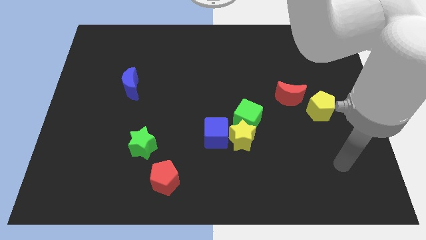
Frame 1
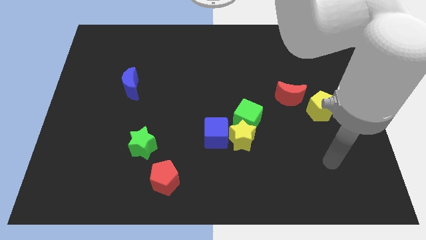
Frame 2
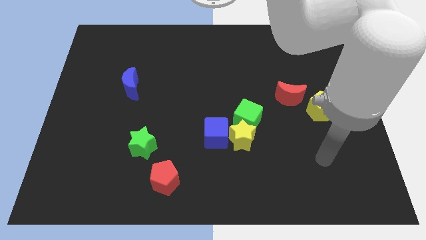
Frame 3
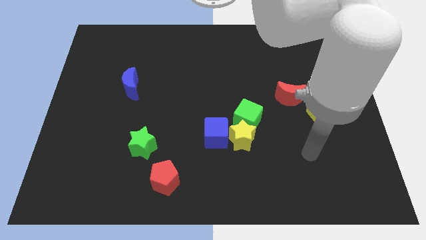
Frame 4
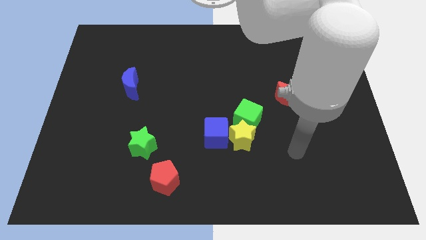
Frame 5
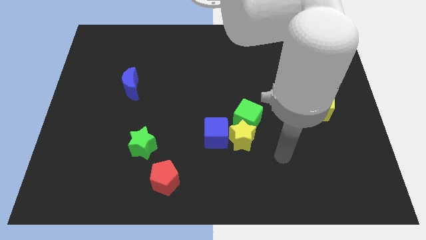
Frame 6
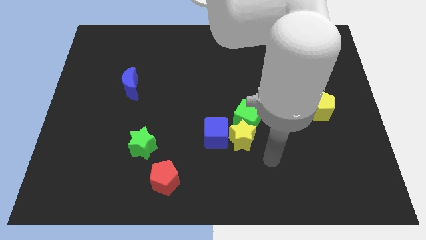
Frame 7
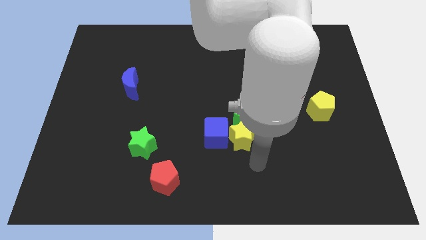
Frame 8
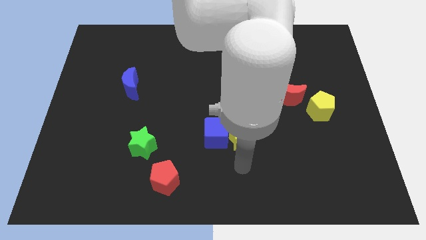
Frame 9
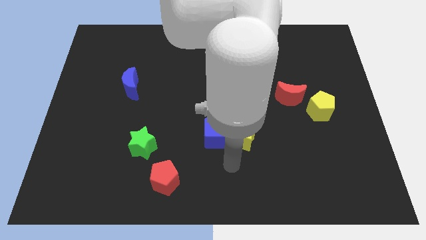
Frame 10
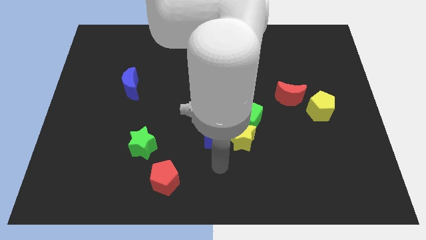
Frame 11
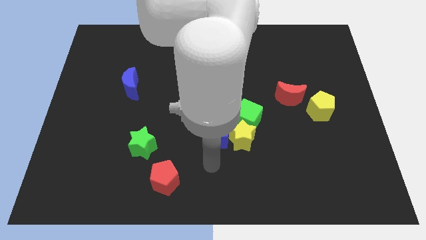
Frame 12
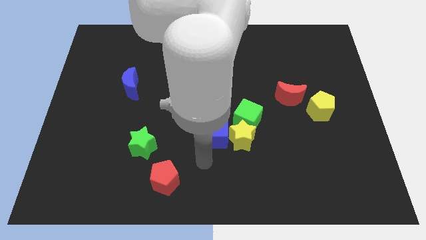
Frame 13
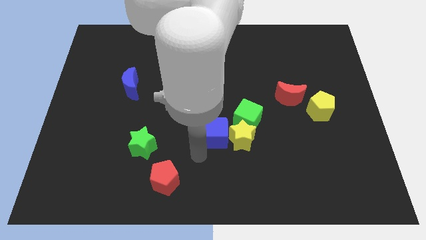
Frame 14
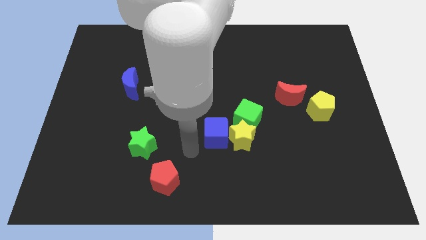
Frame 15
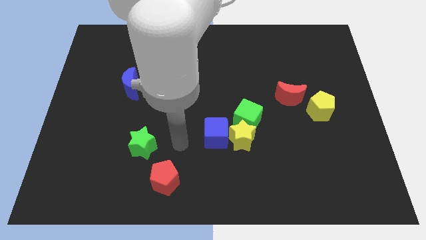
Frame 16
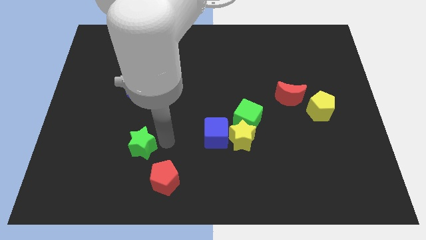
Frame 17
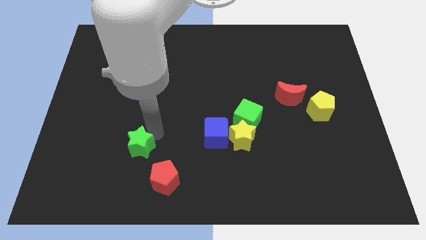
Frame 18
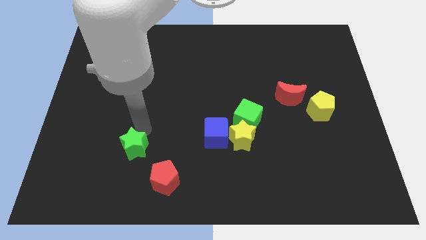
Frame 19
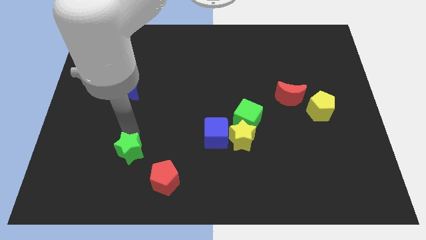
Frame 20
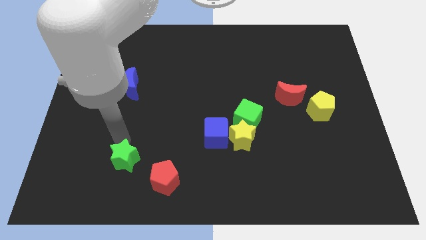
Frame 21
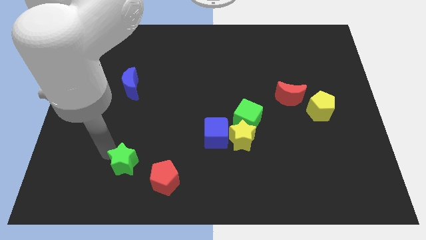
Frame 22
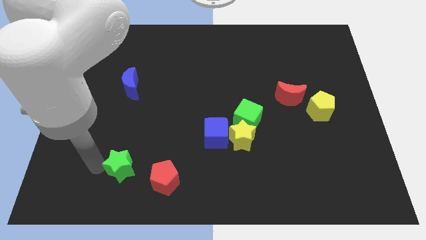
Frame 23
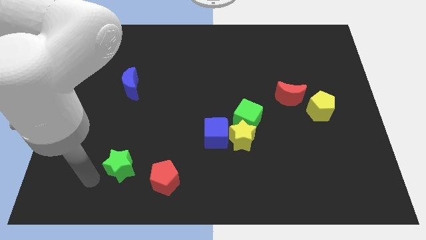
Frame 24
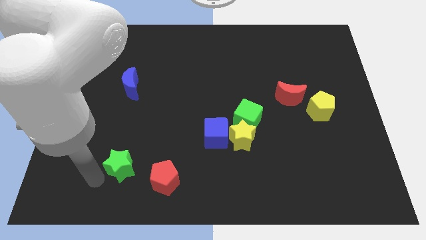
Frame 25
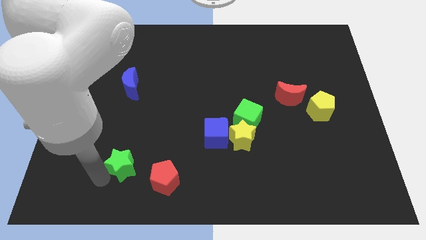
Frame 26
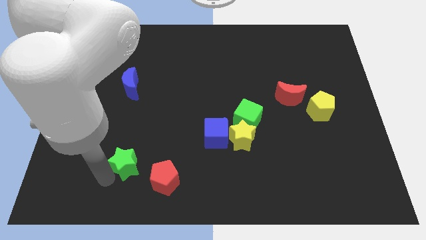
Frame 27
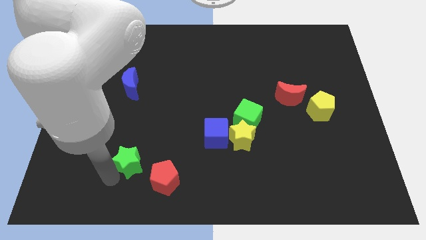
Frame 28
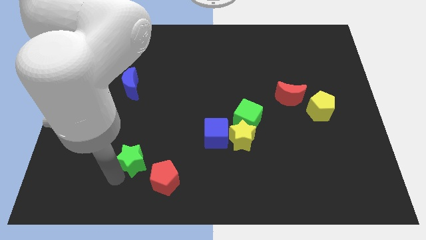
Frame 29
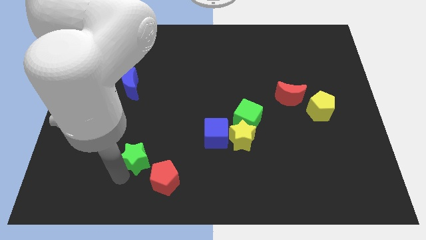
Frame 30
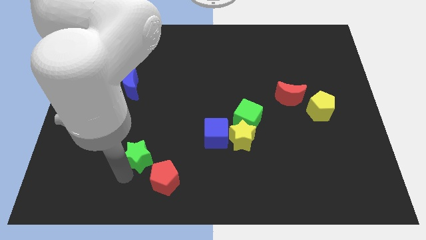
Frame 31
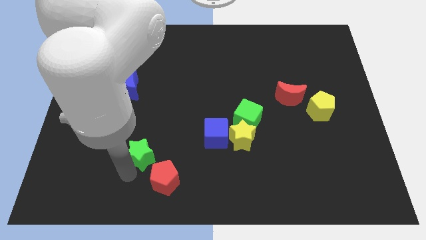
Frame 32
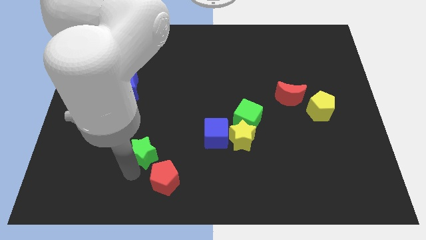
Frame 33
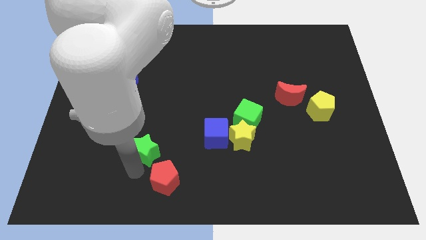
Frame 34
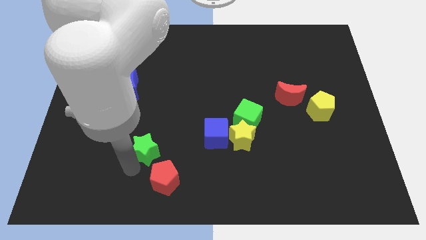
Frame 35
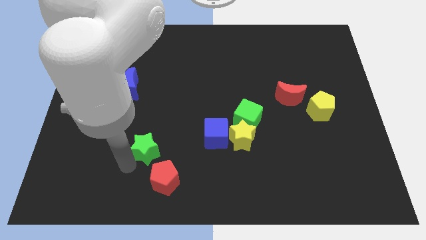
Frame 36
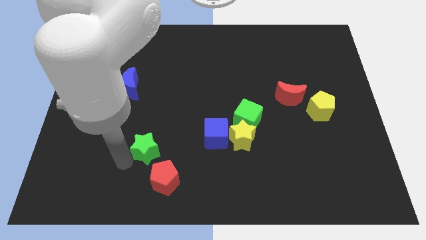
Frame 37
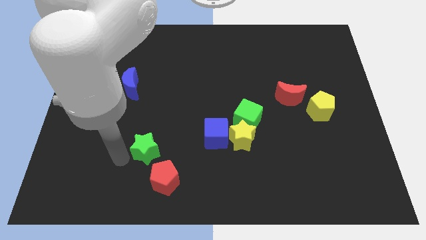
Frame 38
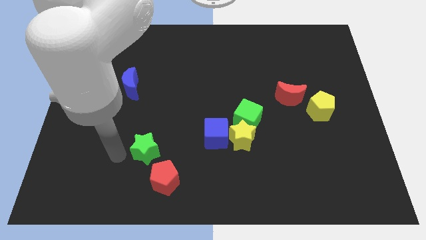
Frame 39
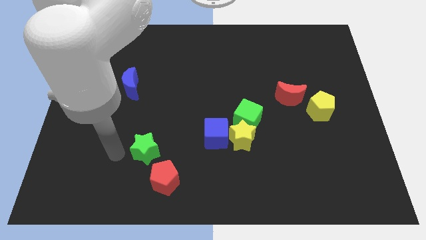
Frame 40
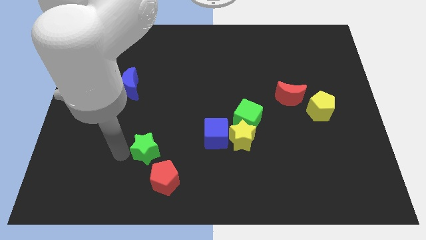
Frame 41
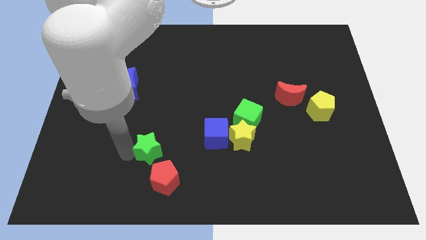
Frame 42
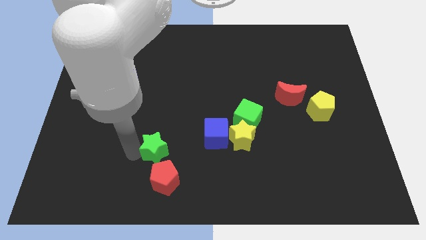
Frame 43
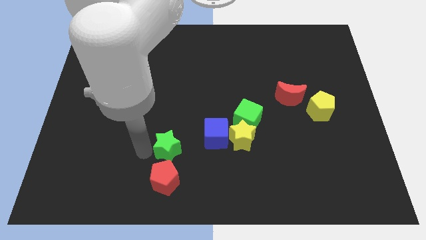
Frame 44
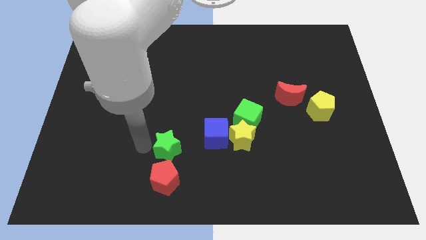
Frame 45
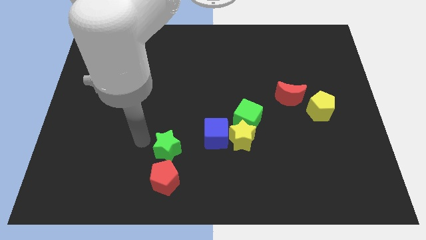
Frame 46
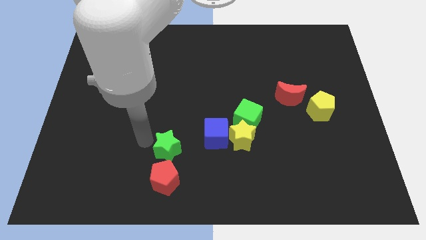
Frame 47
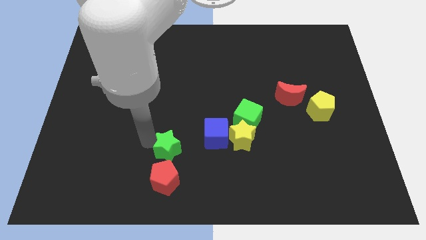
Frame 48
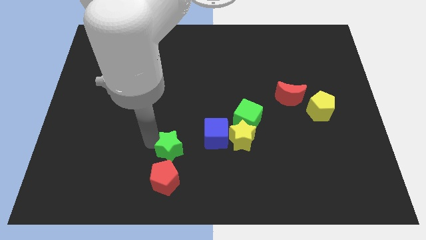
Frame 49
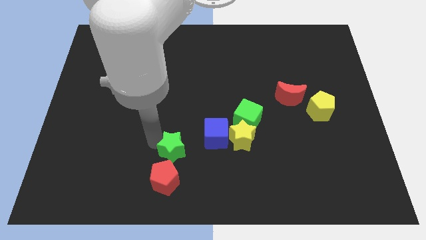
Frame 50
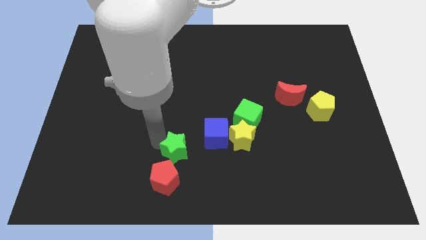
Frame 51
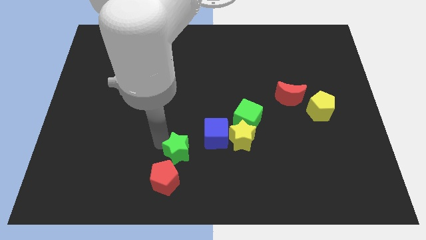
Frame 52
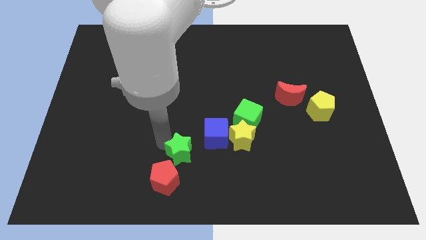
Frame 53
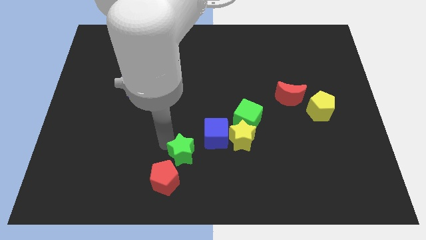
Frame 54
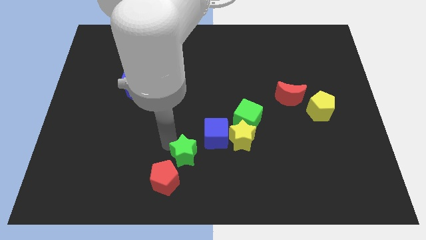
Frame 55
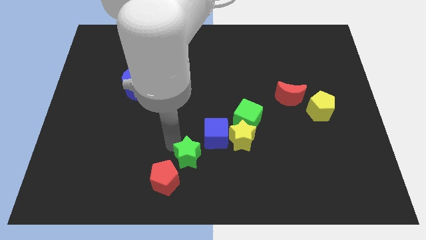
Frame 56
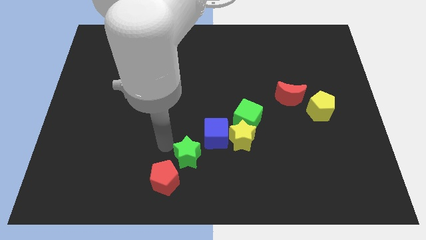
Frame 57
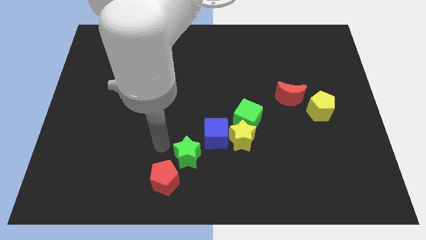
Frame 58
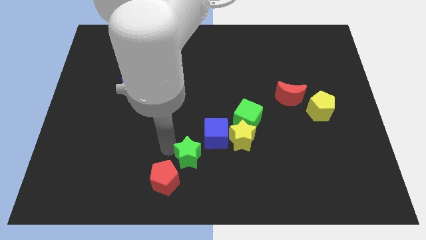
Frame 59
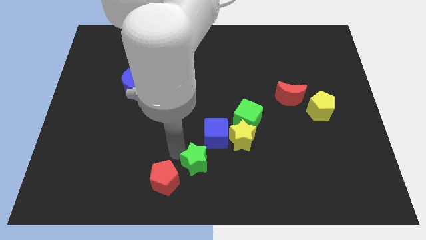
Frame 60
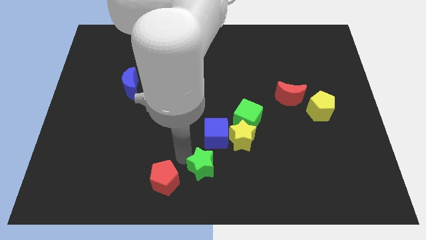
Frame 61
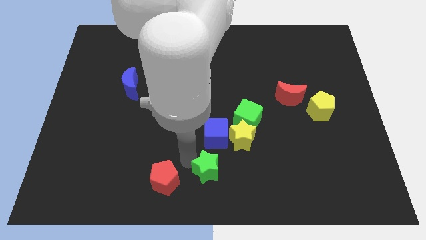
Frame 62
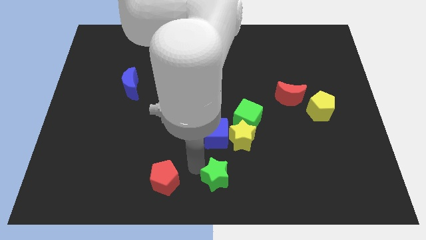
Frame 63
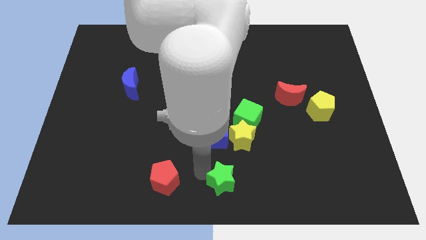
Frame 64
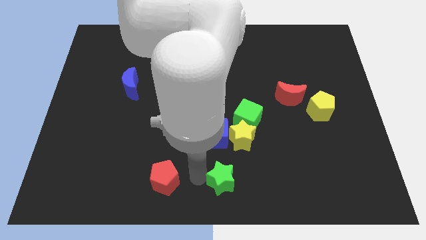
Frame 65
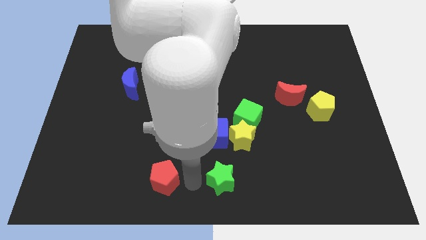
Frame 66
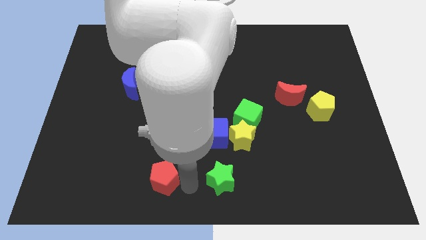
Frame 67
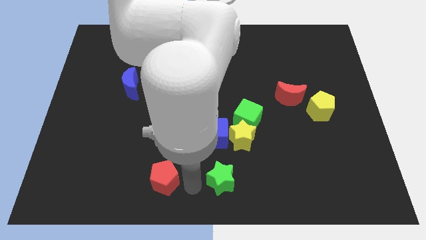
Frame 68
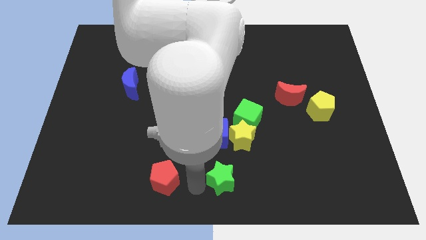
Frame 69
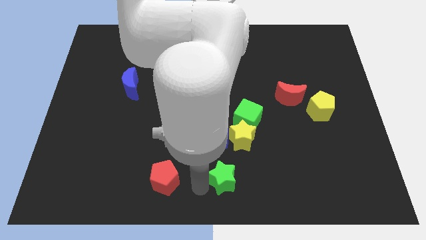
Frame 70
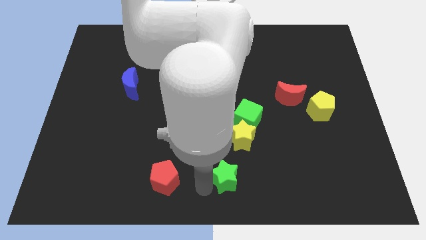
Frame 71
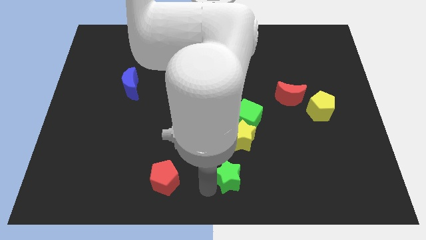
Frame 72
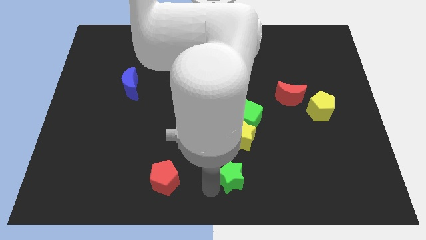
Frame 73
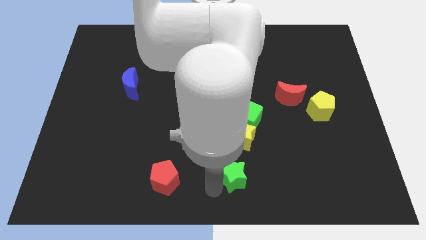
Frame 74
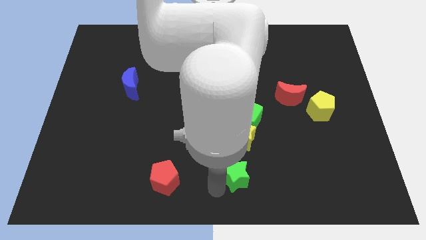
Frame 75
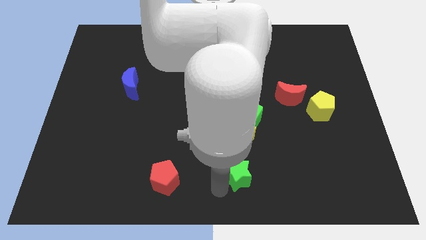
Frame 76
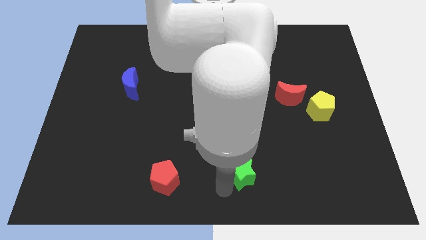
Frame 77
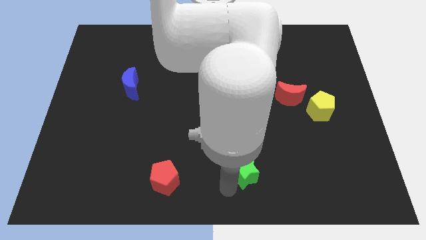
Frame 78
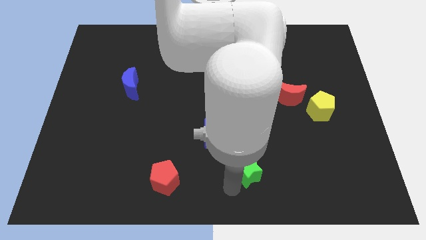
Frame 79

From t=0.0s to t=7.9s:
push the green star to the right

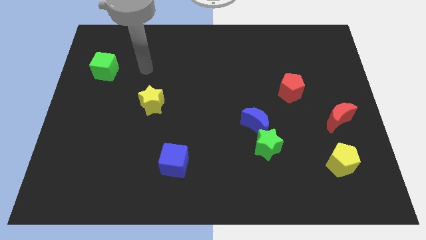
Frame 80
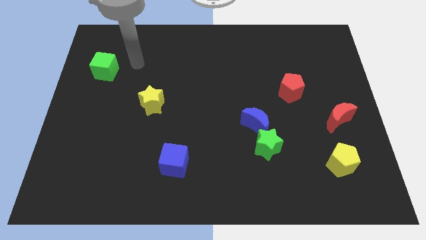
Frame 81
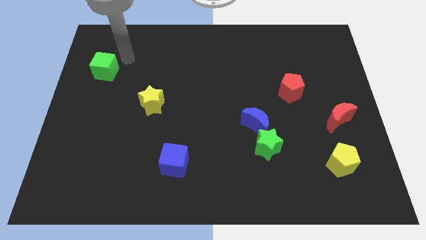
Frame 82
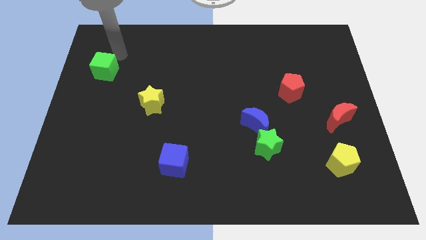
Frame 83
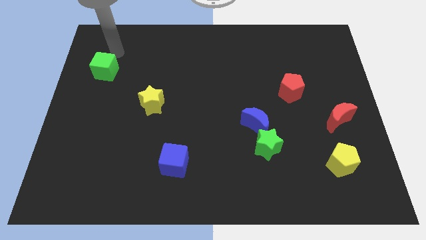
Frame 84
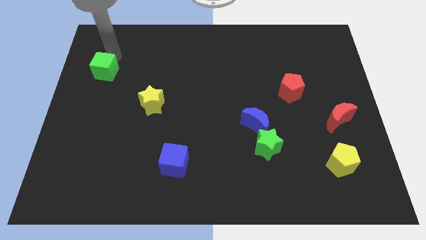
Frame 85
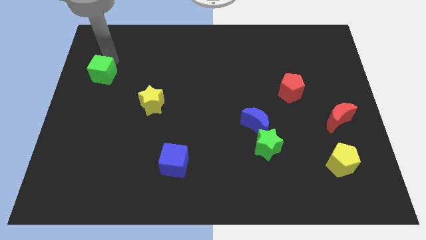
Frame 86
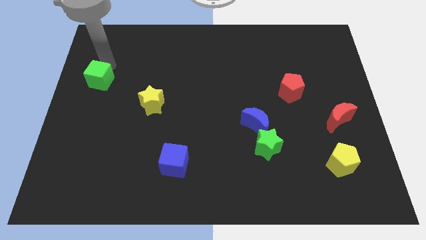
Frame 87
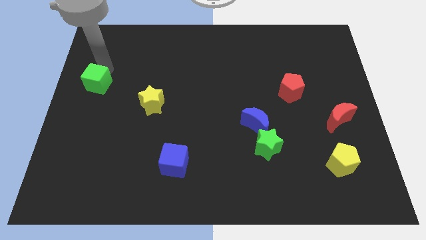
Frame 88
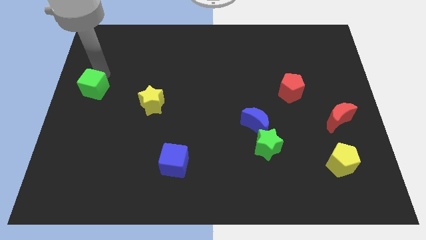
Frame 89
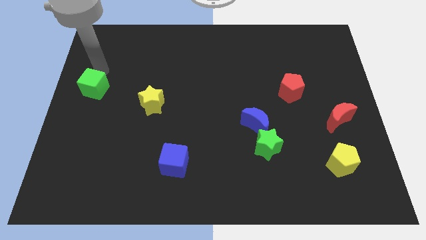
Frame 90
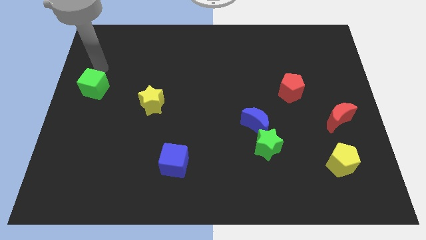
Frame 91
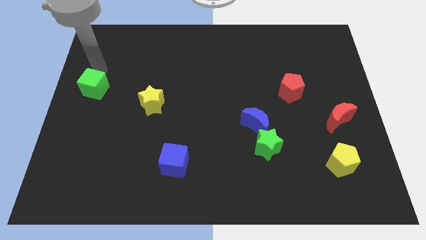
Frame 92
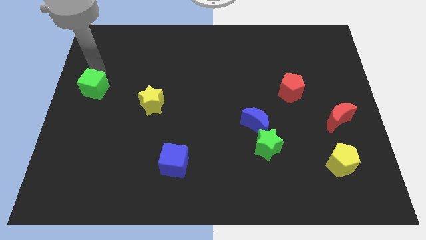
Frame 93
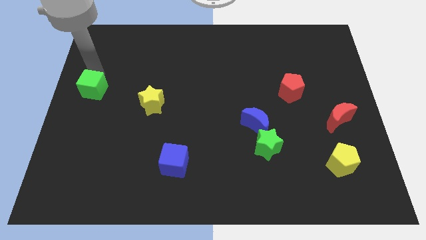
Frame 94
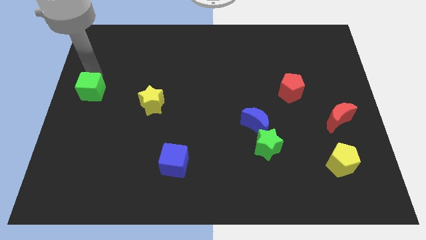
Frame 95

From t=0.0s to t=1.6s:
slightly push the green cube down
